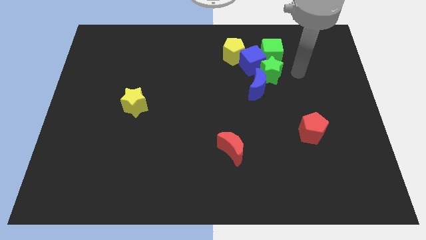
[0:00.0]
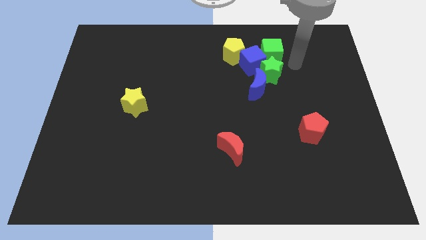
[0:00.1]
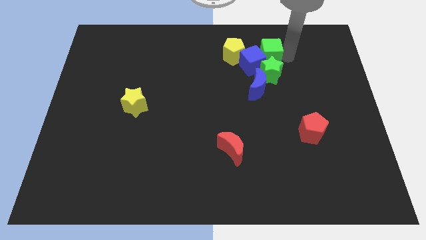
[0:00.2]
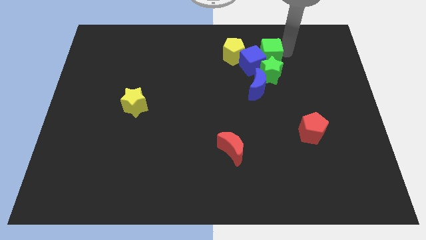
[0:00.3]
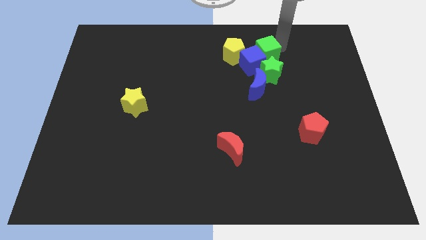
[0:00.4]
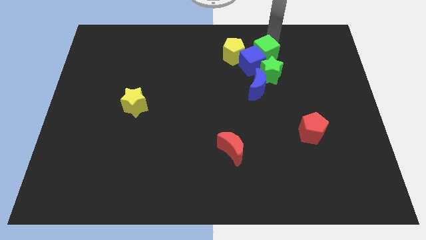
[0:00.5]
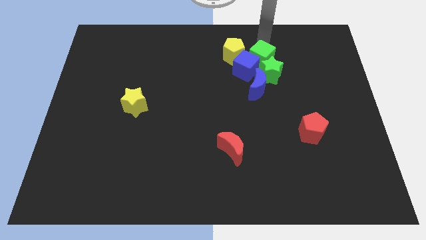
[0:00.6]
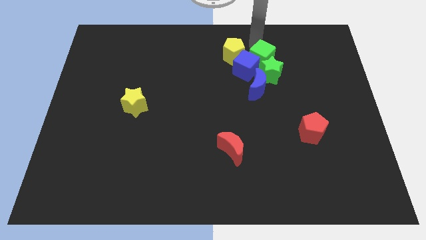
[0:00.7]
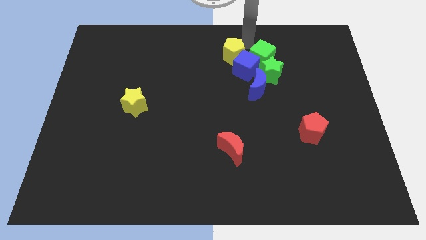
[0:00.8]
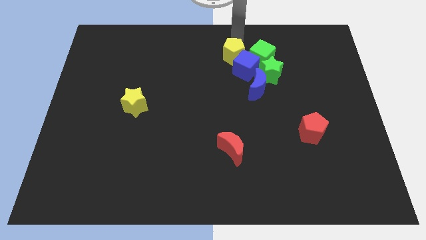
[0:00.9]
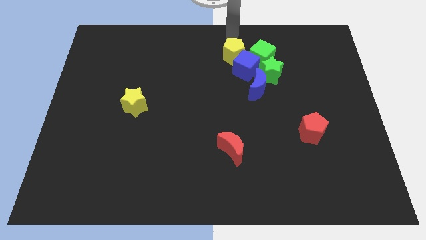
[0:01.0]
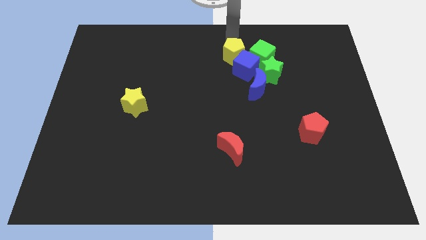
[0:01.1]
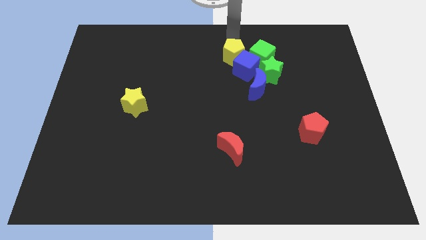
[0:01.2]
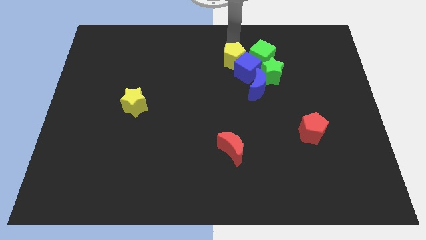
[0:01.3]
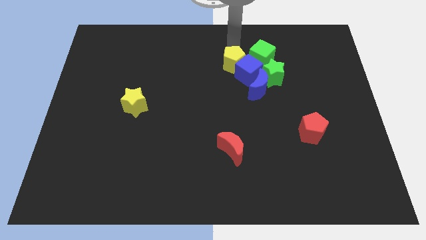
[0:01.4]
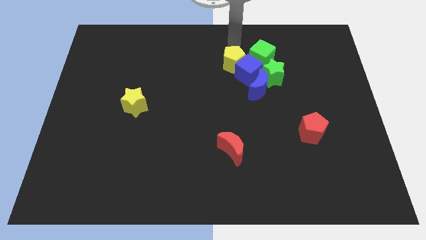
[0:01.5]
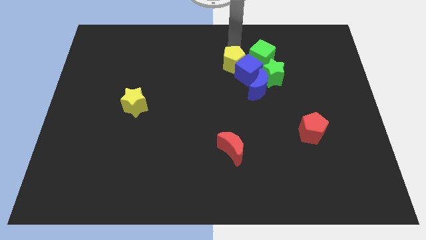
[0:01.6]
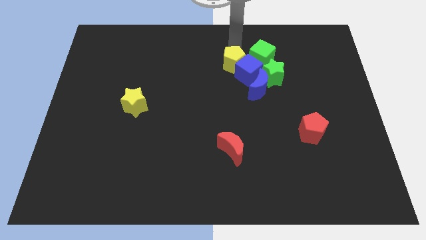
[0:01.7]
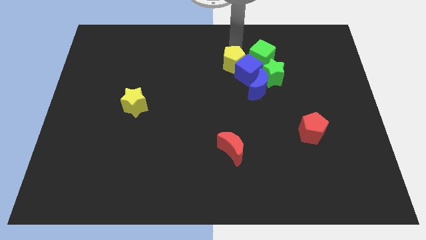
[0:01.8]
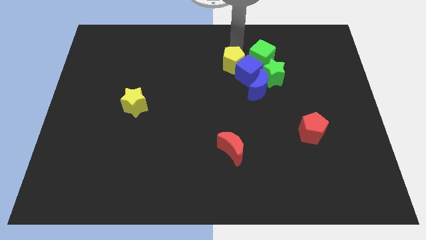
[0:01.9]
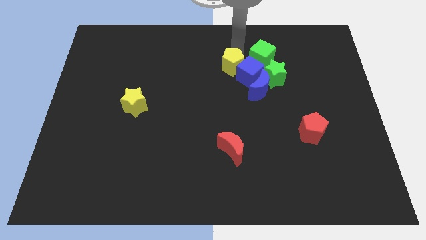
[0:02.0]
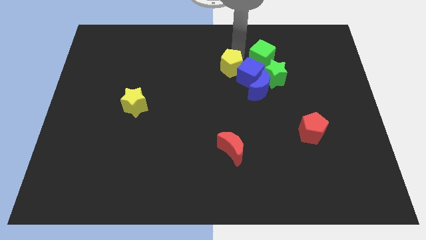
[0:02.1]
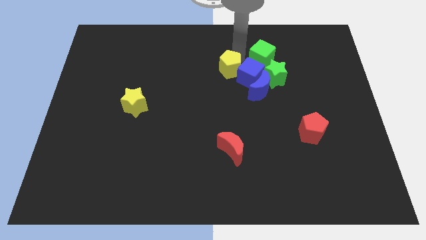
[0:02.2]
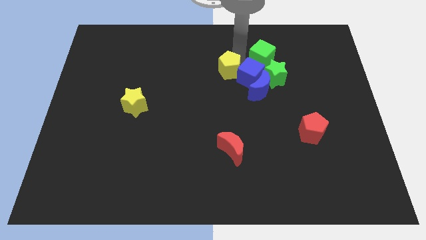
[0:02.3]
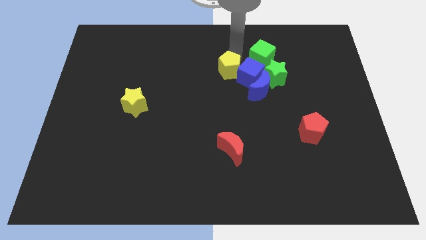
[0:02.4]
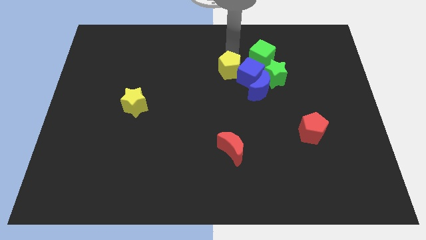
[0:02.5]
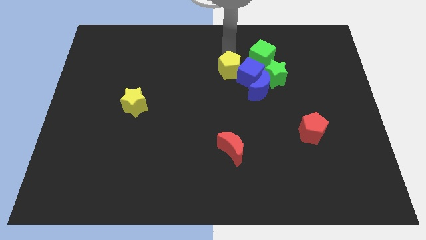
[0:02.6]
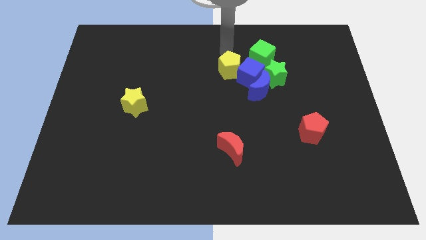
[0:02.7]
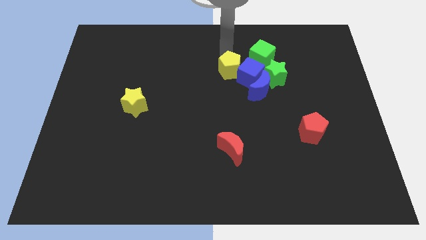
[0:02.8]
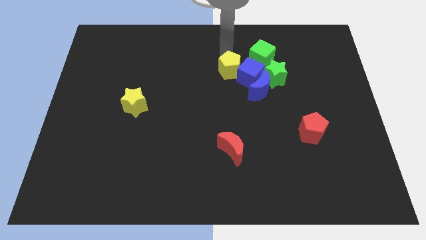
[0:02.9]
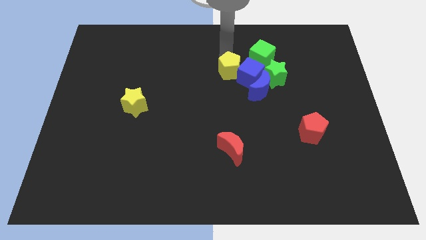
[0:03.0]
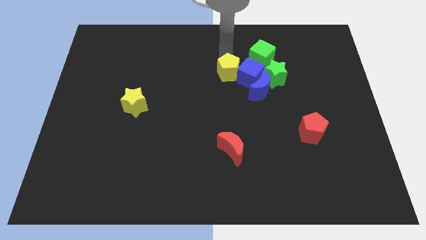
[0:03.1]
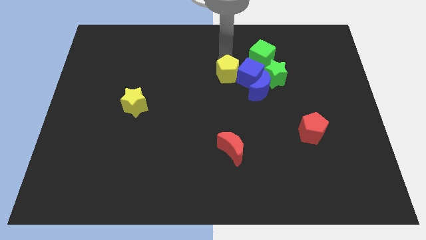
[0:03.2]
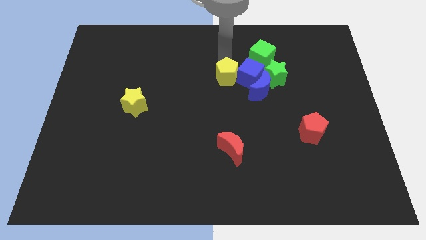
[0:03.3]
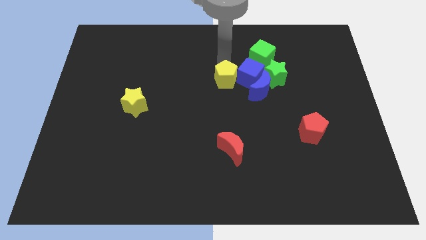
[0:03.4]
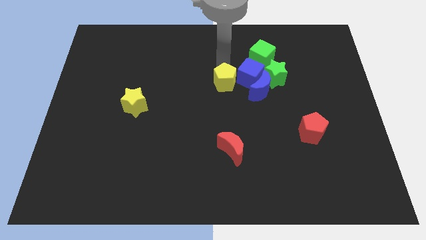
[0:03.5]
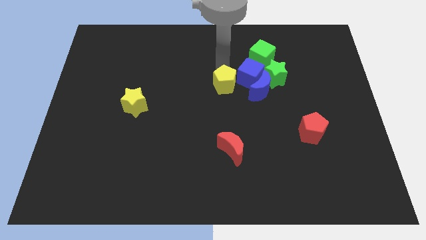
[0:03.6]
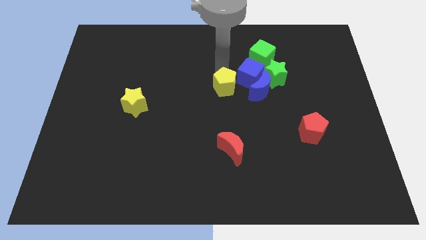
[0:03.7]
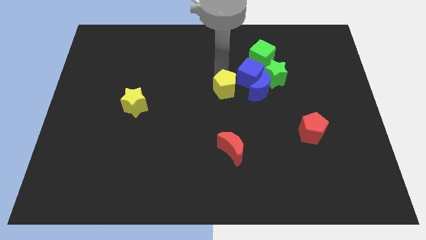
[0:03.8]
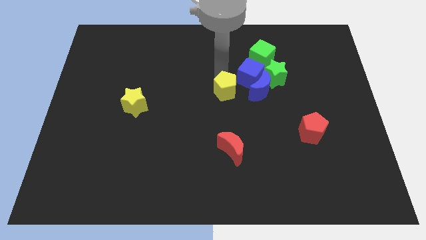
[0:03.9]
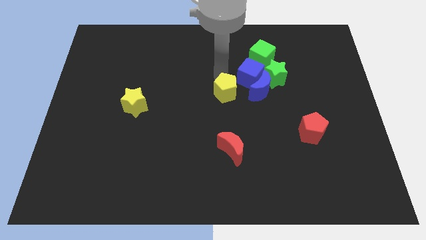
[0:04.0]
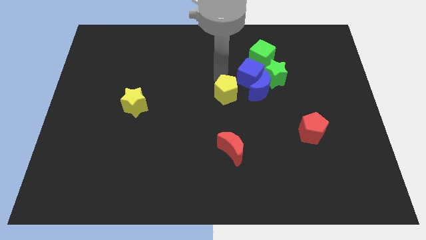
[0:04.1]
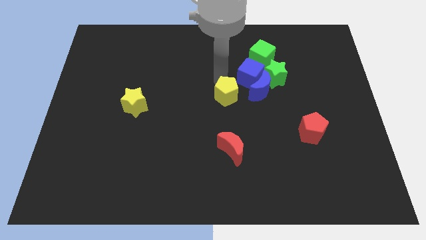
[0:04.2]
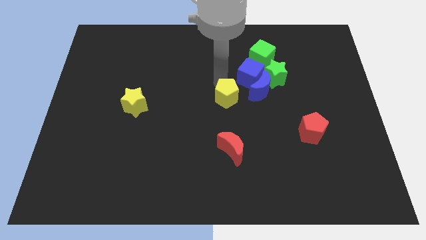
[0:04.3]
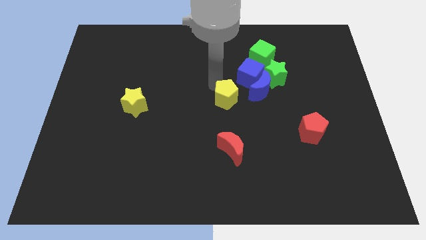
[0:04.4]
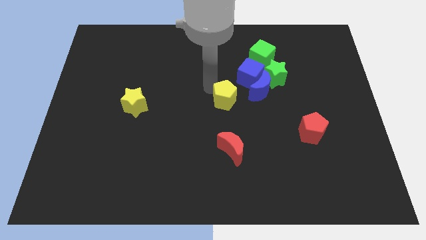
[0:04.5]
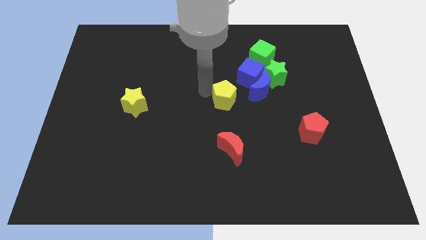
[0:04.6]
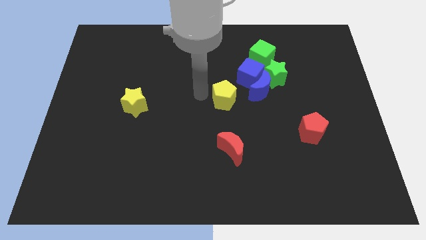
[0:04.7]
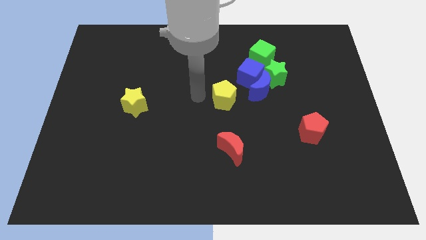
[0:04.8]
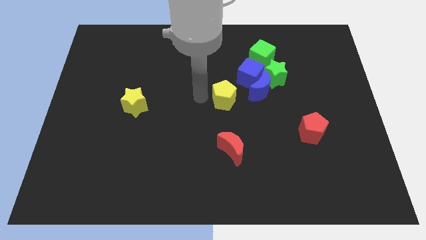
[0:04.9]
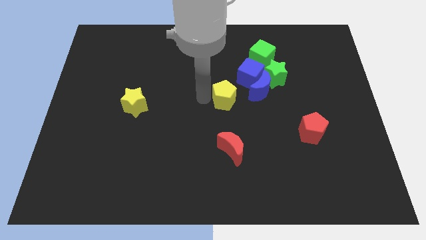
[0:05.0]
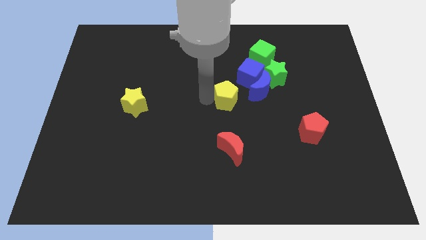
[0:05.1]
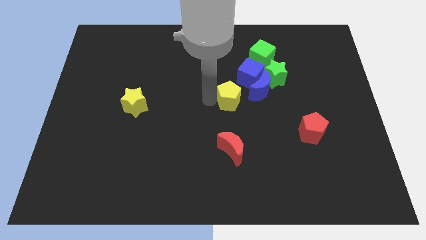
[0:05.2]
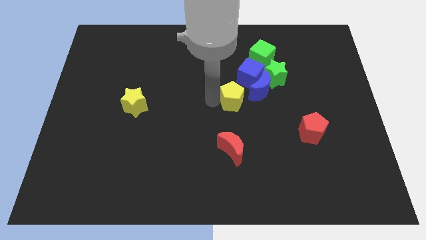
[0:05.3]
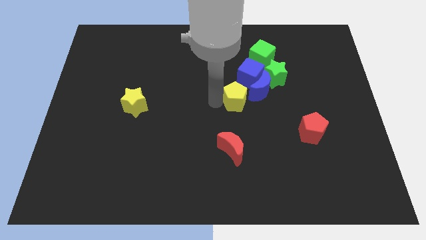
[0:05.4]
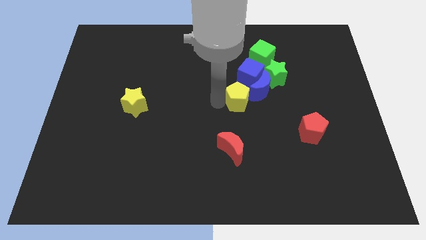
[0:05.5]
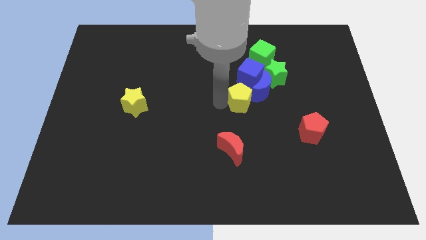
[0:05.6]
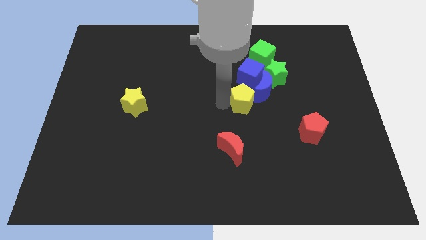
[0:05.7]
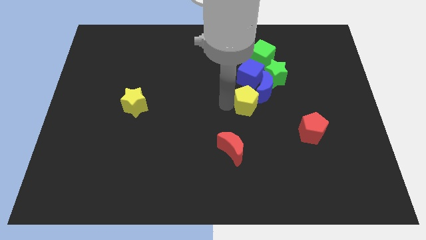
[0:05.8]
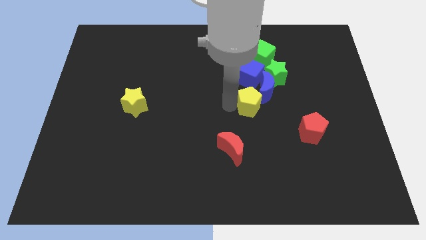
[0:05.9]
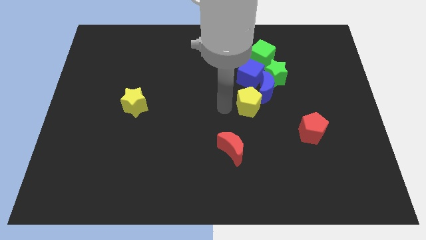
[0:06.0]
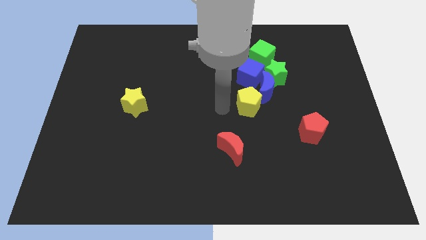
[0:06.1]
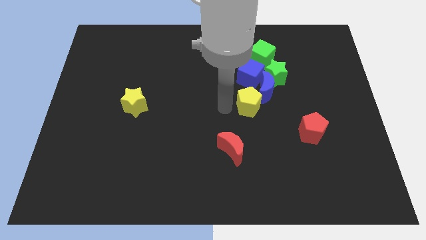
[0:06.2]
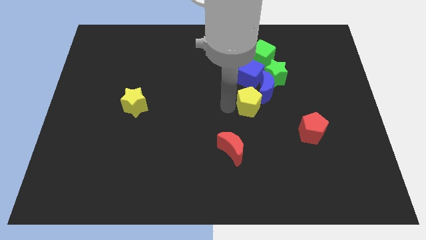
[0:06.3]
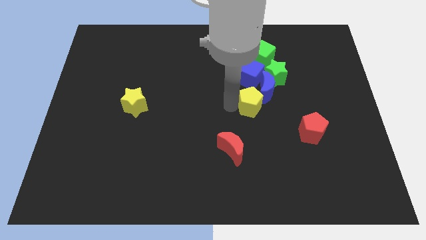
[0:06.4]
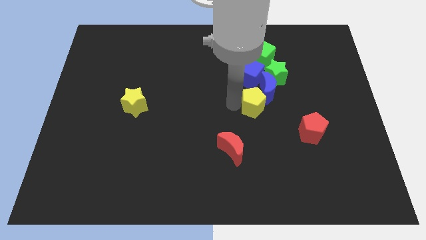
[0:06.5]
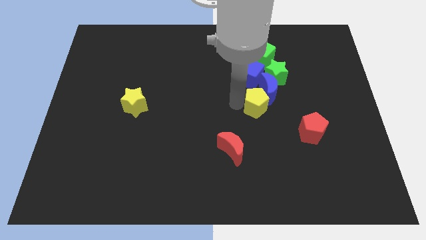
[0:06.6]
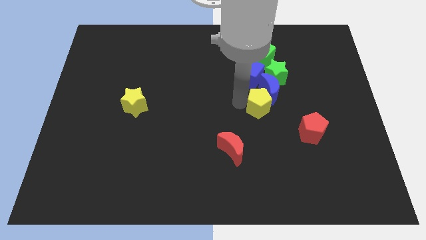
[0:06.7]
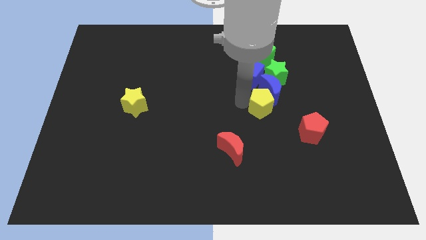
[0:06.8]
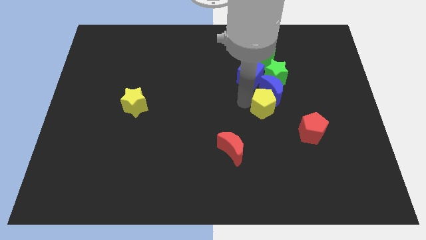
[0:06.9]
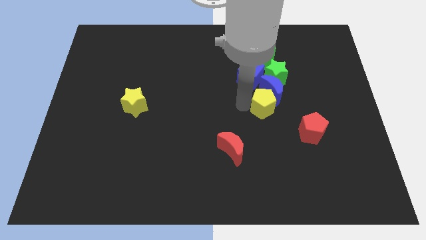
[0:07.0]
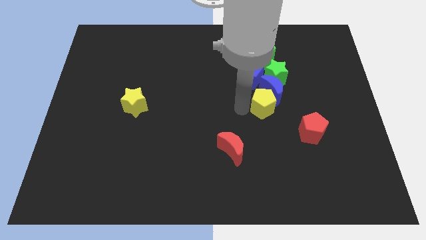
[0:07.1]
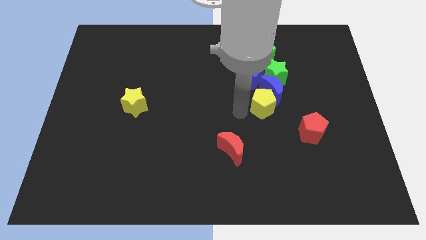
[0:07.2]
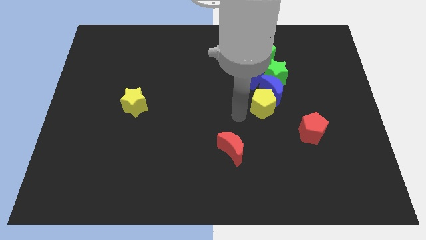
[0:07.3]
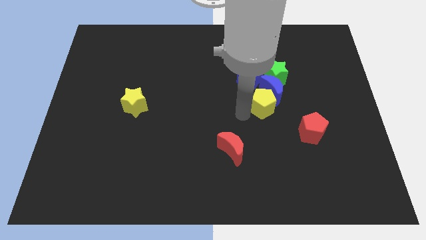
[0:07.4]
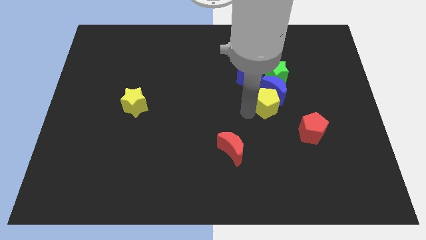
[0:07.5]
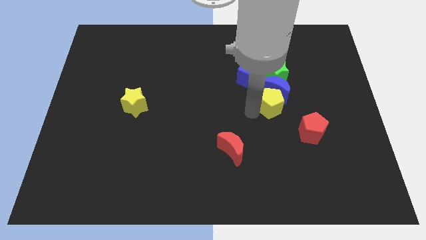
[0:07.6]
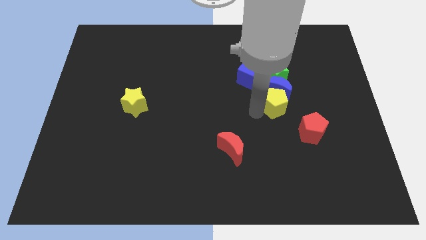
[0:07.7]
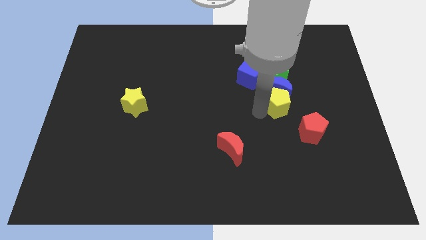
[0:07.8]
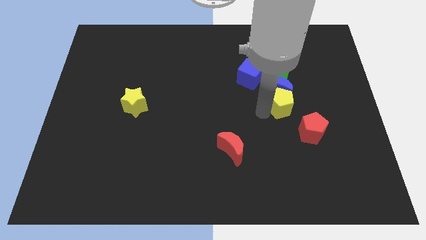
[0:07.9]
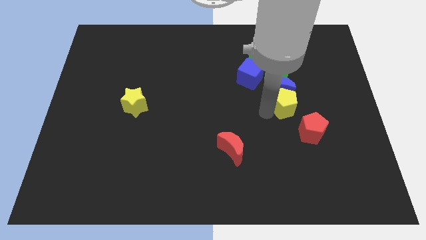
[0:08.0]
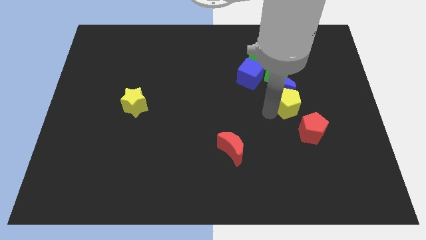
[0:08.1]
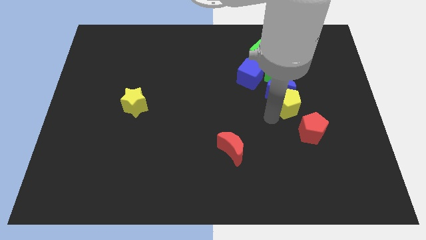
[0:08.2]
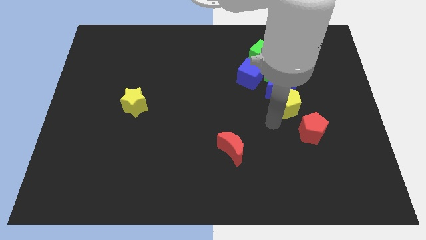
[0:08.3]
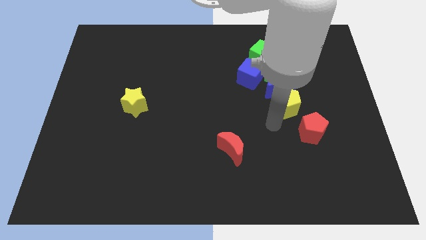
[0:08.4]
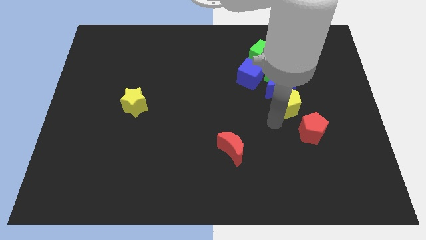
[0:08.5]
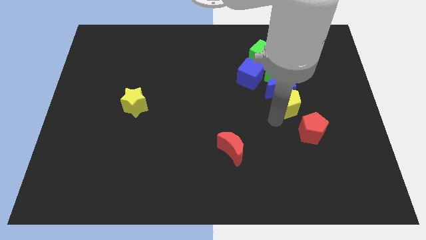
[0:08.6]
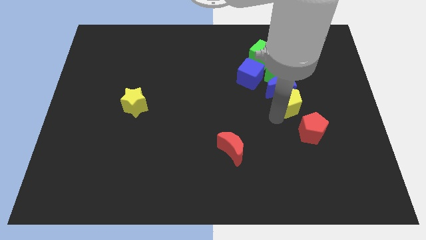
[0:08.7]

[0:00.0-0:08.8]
put the yellow pentagon to the bottom right of the green star
